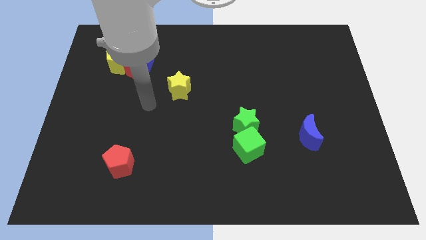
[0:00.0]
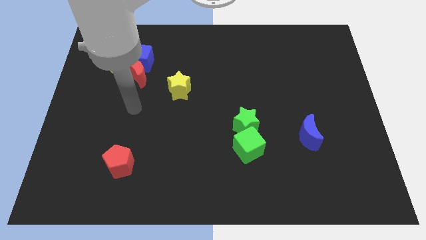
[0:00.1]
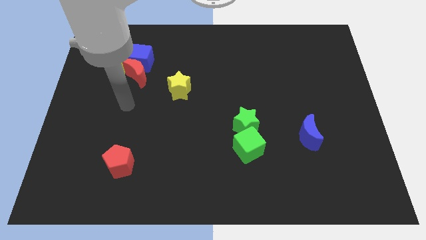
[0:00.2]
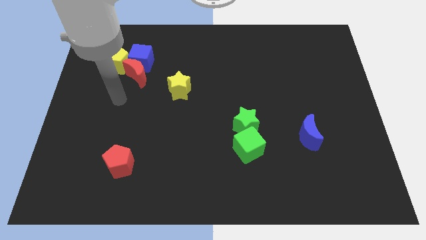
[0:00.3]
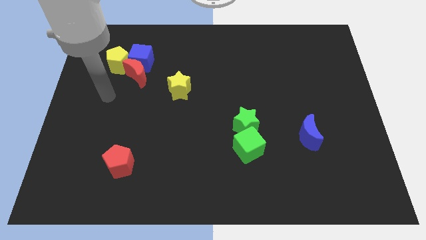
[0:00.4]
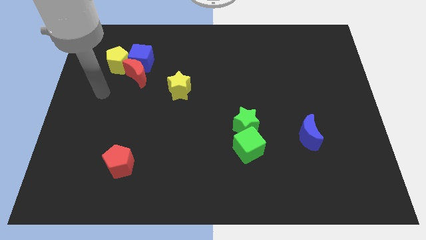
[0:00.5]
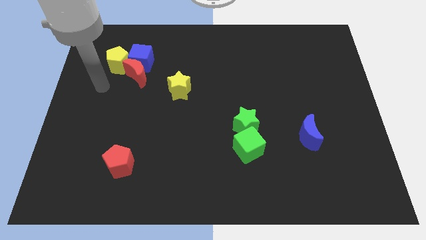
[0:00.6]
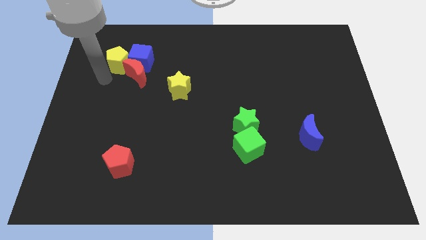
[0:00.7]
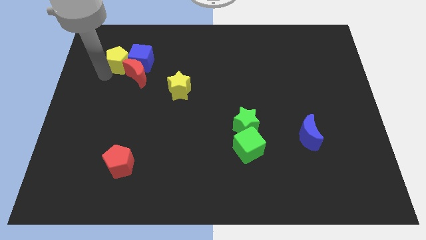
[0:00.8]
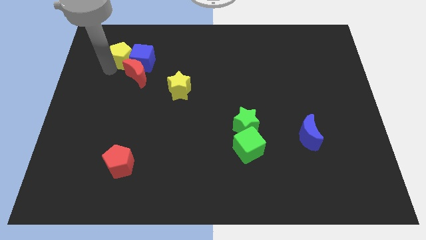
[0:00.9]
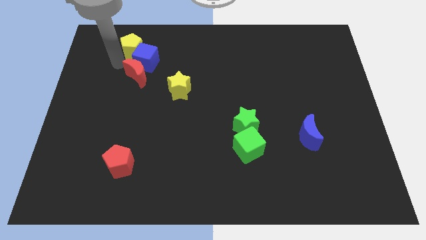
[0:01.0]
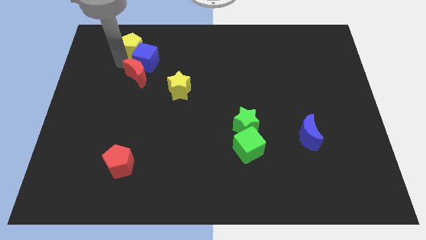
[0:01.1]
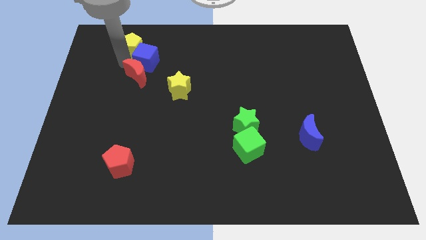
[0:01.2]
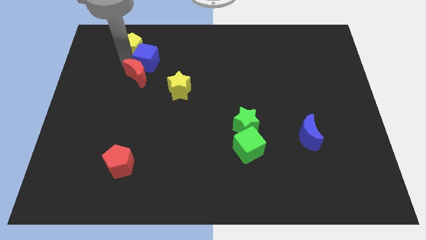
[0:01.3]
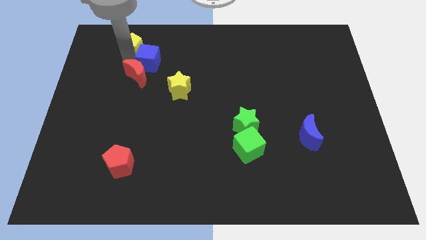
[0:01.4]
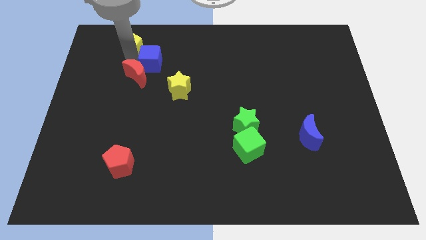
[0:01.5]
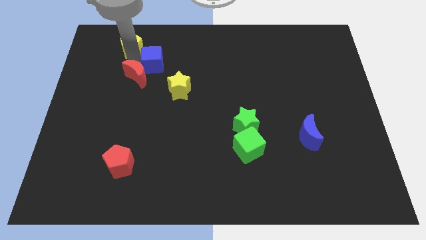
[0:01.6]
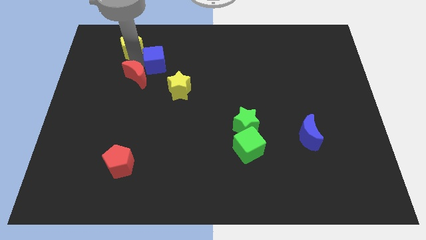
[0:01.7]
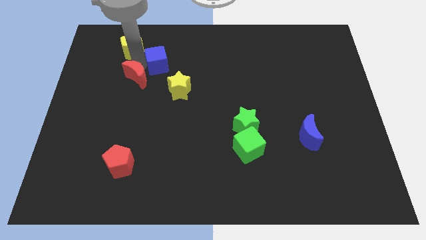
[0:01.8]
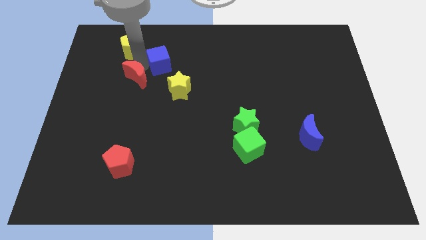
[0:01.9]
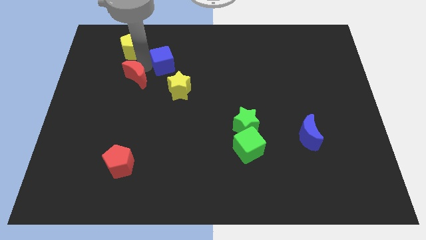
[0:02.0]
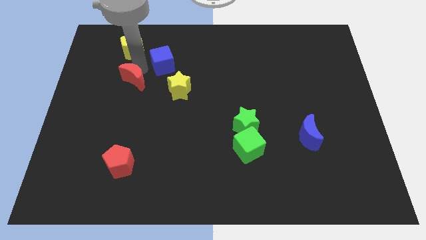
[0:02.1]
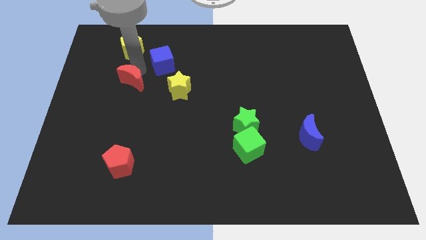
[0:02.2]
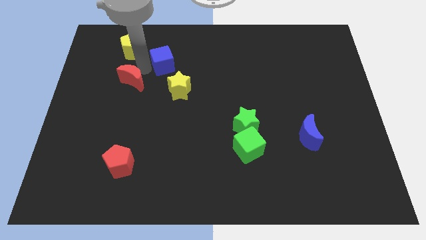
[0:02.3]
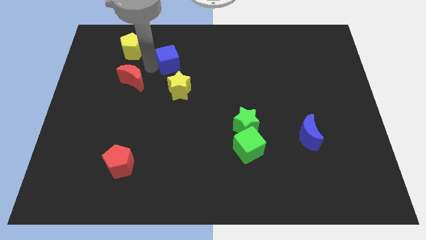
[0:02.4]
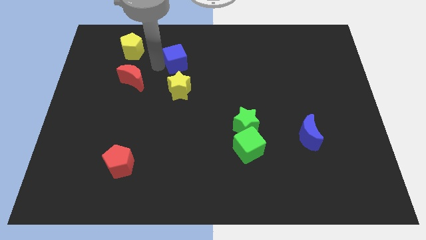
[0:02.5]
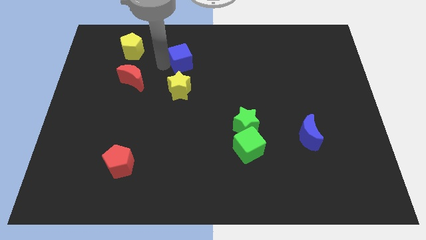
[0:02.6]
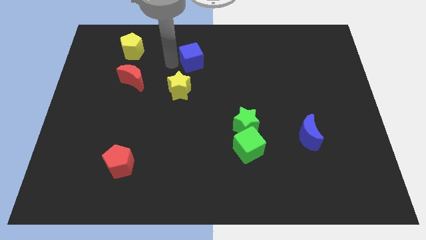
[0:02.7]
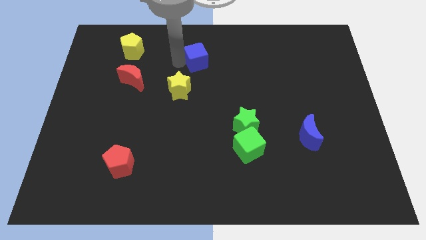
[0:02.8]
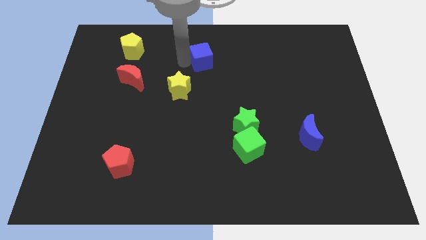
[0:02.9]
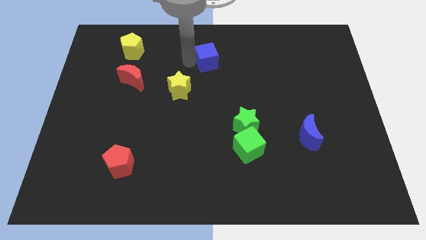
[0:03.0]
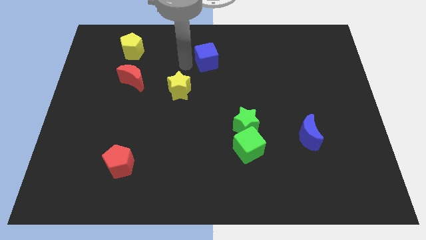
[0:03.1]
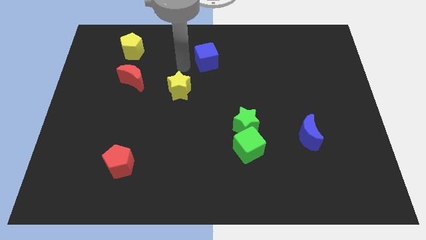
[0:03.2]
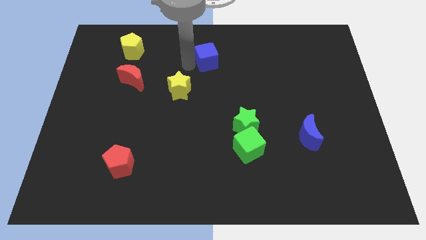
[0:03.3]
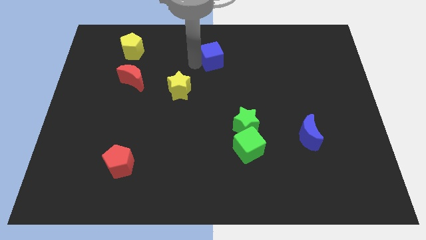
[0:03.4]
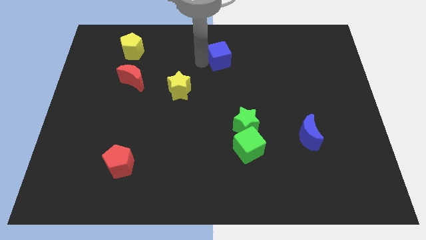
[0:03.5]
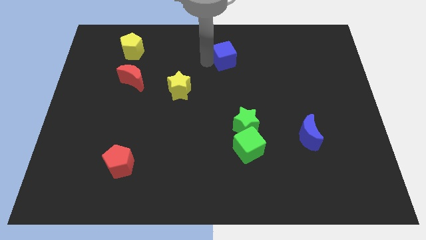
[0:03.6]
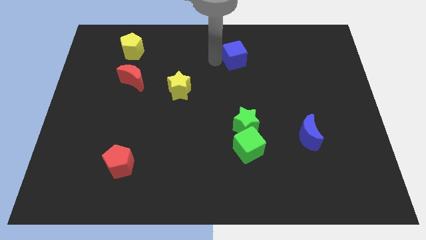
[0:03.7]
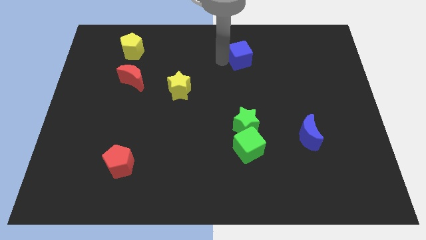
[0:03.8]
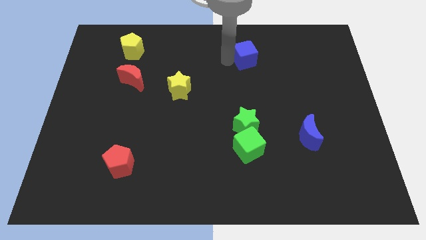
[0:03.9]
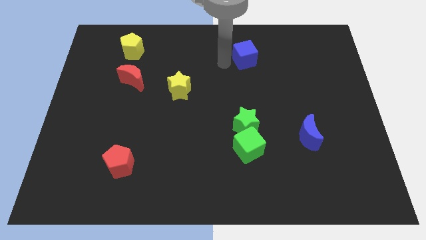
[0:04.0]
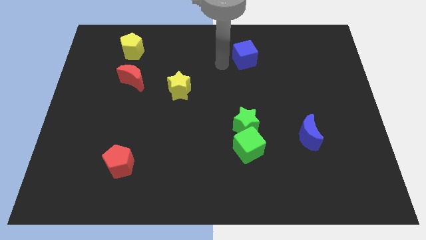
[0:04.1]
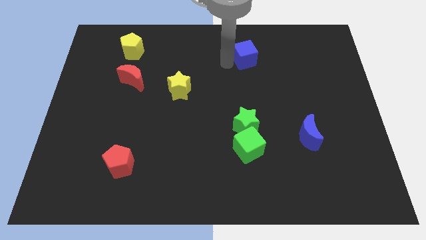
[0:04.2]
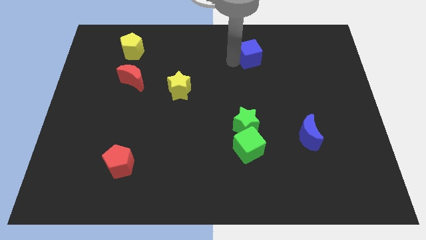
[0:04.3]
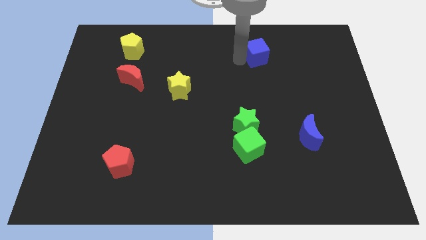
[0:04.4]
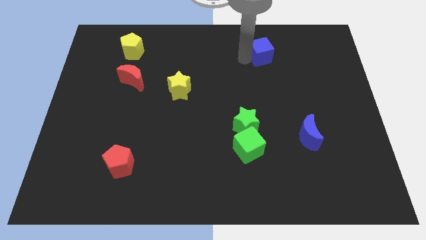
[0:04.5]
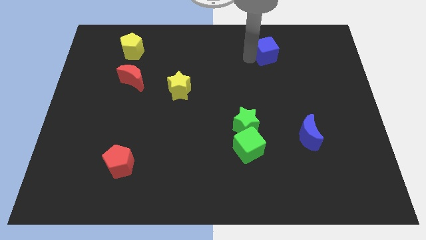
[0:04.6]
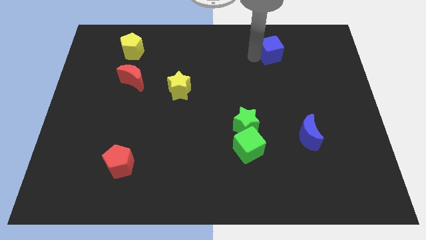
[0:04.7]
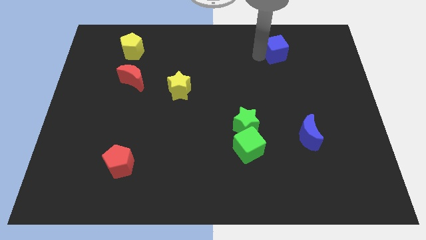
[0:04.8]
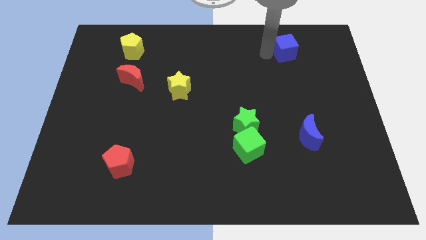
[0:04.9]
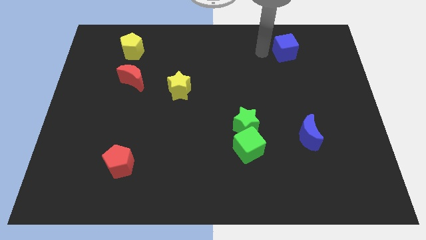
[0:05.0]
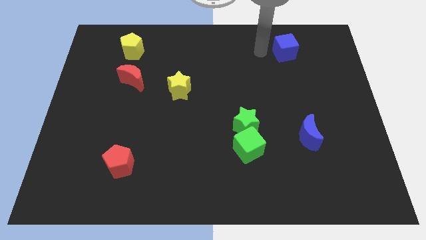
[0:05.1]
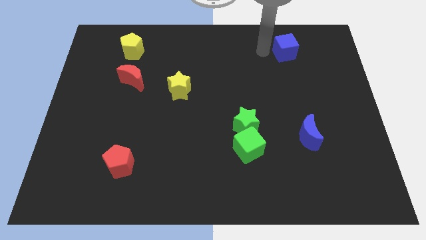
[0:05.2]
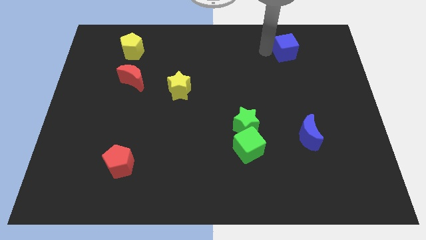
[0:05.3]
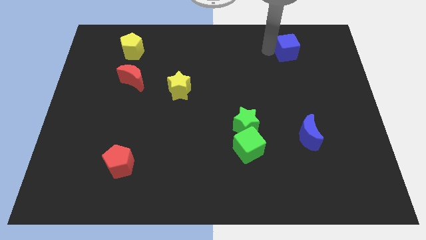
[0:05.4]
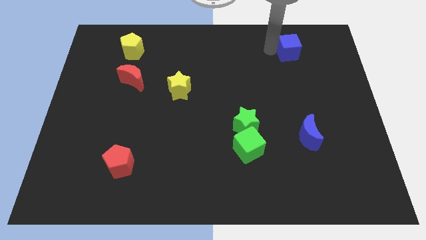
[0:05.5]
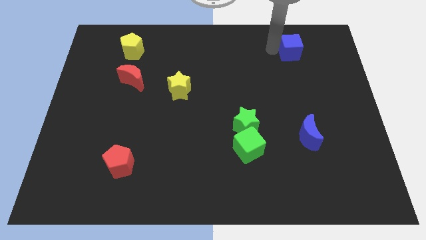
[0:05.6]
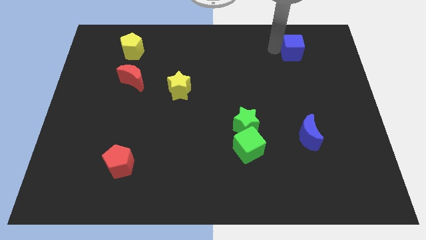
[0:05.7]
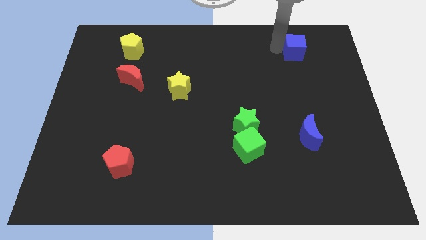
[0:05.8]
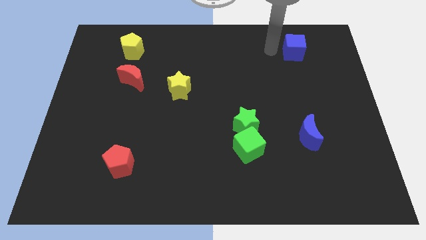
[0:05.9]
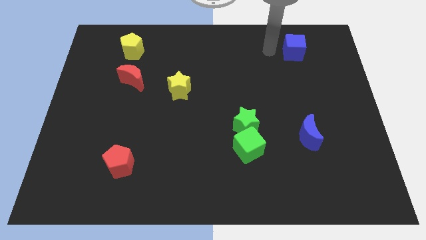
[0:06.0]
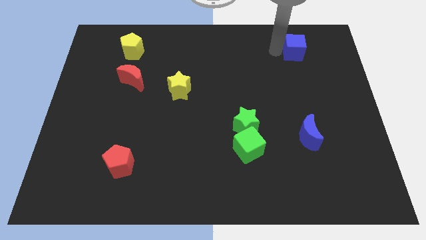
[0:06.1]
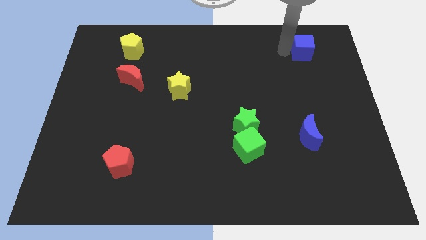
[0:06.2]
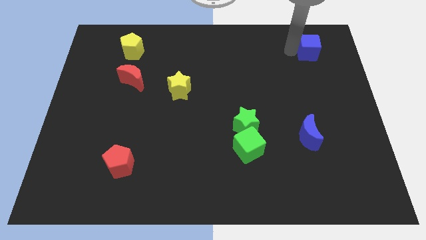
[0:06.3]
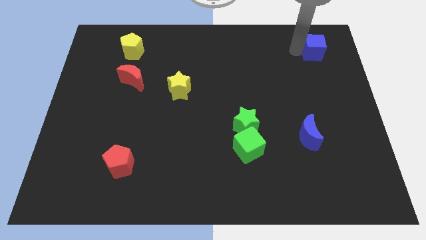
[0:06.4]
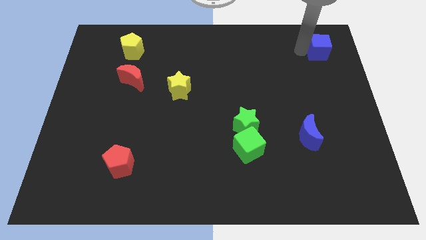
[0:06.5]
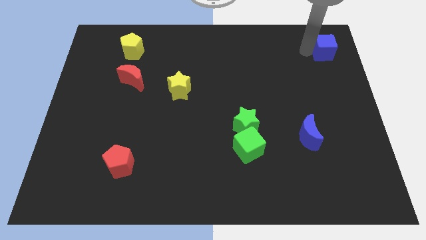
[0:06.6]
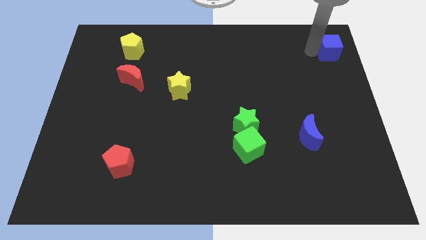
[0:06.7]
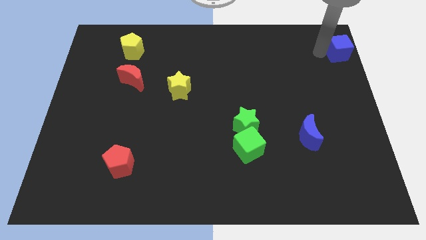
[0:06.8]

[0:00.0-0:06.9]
move the blue cube to the upper right corner
